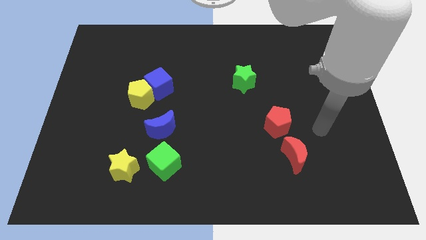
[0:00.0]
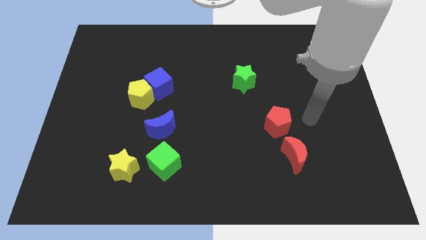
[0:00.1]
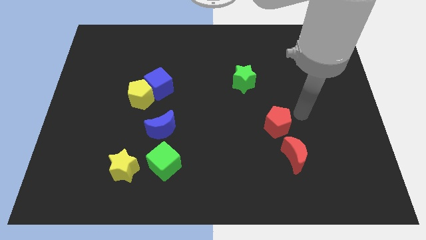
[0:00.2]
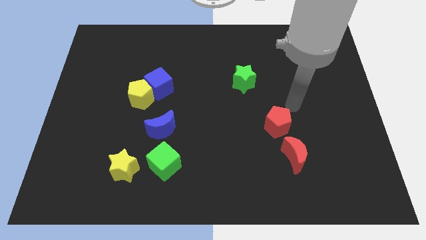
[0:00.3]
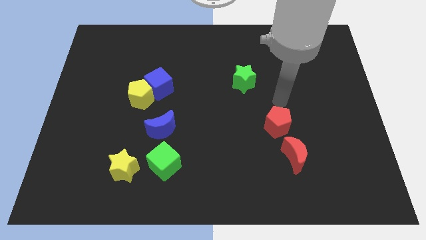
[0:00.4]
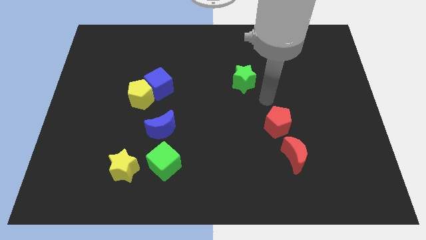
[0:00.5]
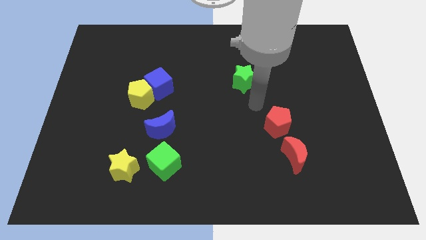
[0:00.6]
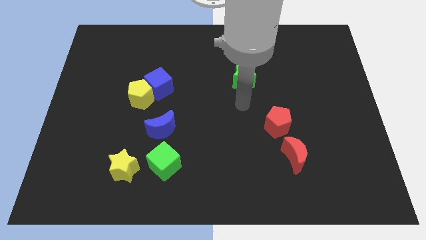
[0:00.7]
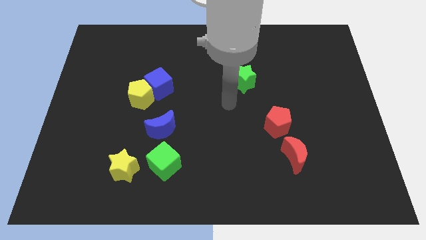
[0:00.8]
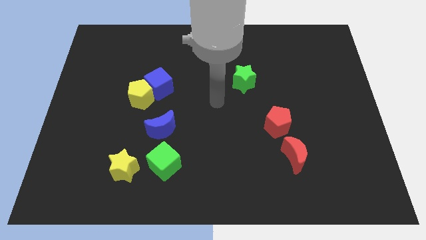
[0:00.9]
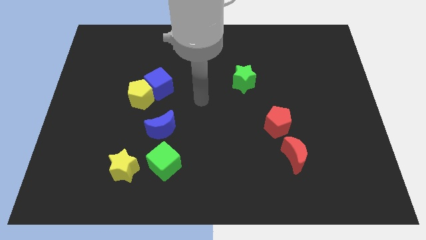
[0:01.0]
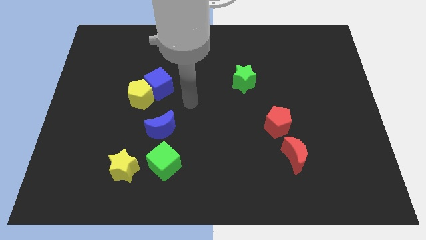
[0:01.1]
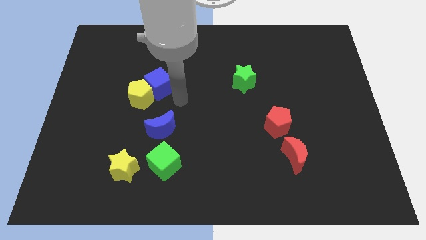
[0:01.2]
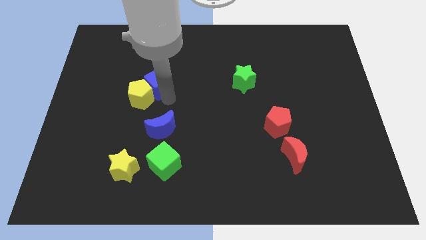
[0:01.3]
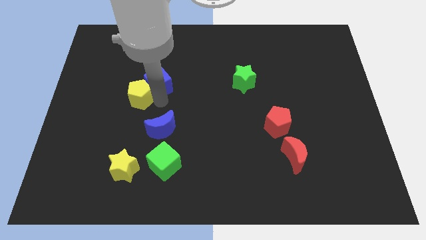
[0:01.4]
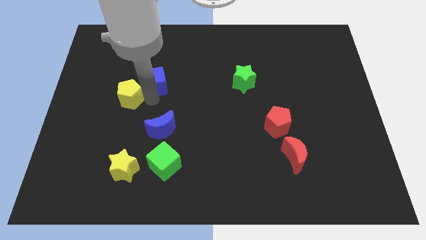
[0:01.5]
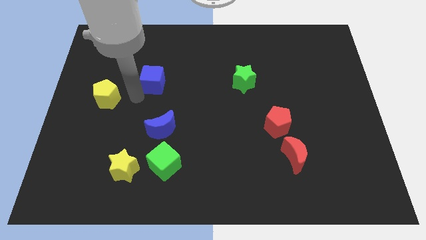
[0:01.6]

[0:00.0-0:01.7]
move the blue cube away from the yellow pentagon

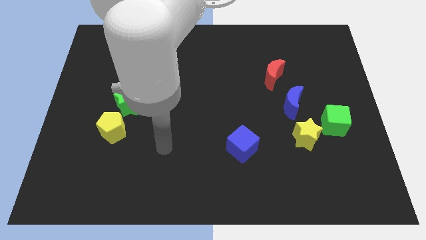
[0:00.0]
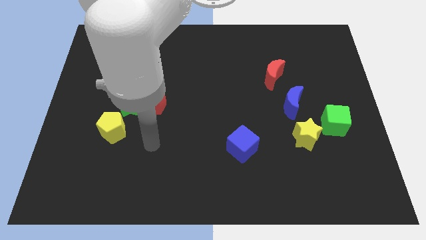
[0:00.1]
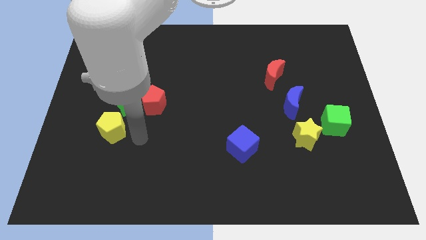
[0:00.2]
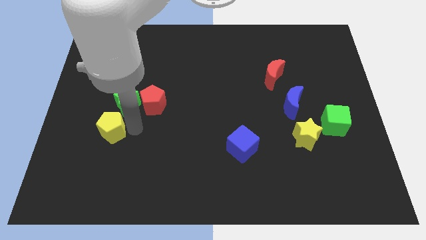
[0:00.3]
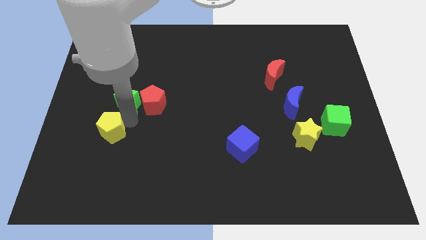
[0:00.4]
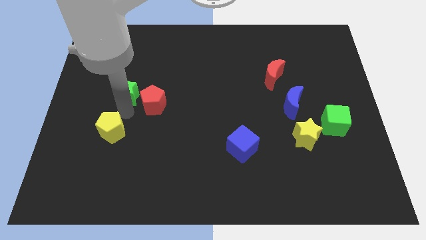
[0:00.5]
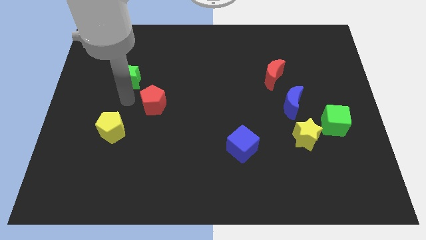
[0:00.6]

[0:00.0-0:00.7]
move the red pentagon away from the green star

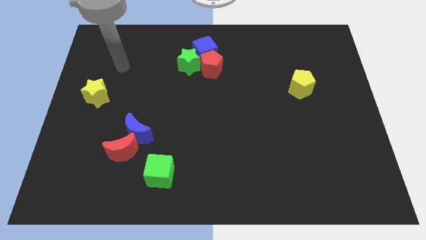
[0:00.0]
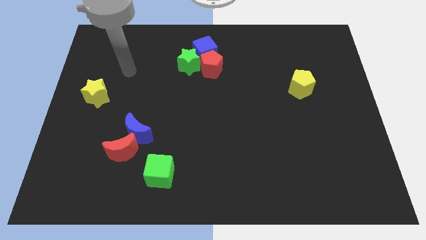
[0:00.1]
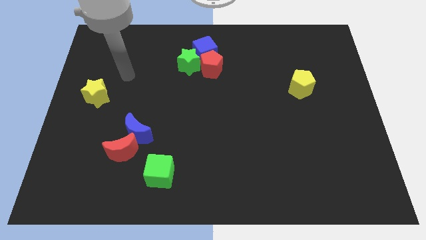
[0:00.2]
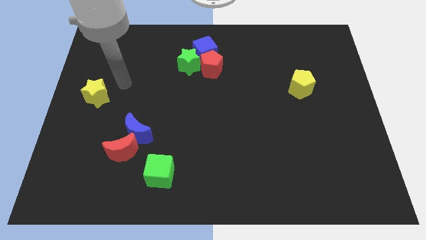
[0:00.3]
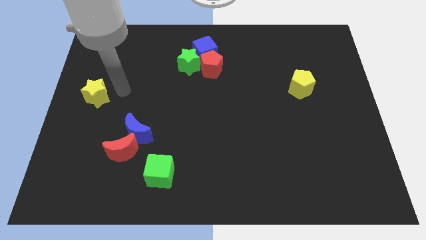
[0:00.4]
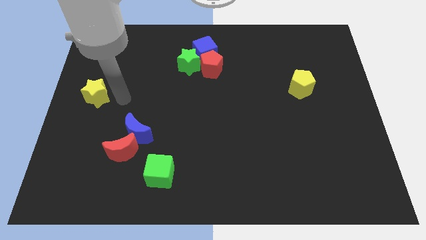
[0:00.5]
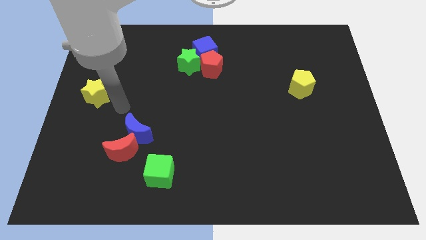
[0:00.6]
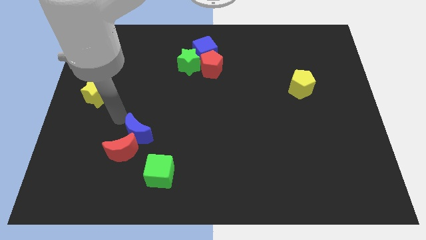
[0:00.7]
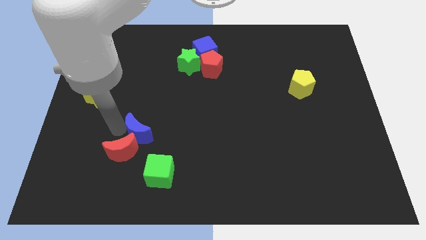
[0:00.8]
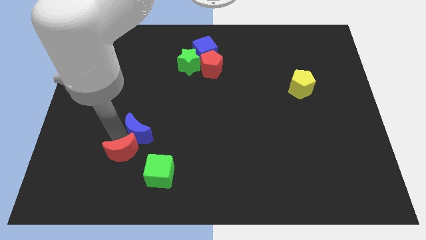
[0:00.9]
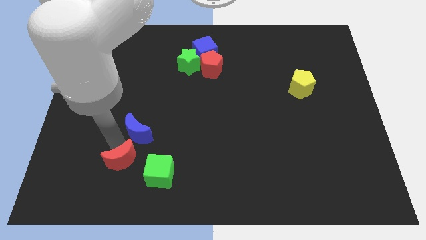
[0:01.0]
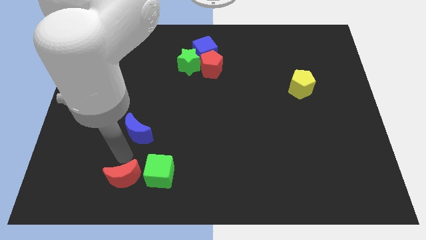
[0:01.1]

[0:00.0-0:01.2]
separate the blue moon from the red moon

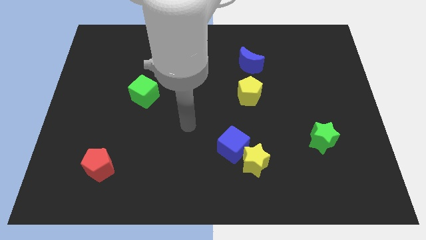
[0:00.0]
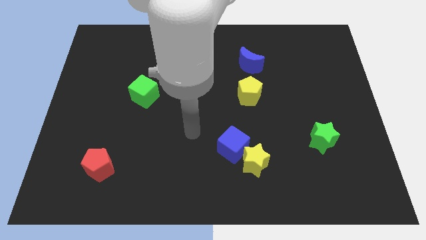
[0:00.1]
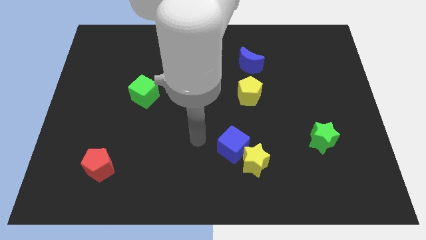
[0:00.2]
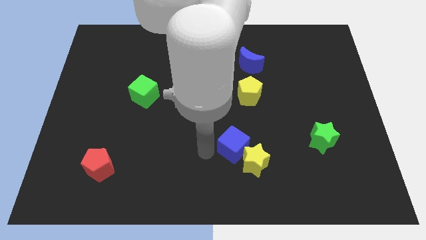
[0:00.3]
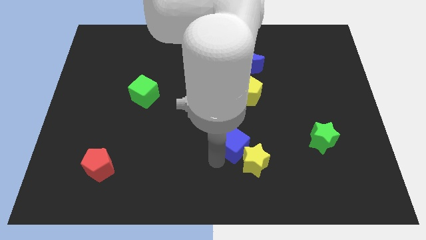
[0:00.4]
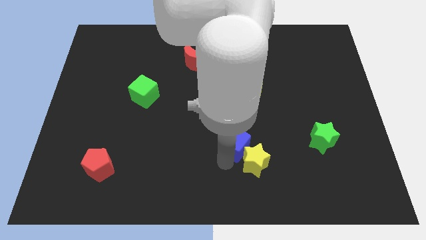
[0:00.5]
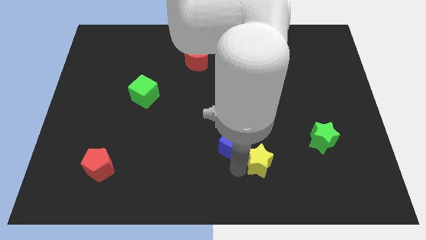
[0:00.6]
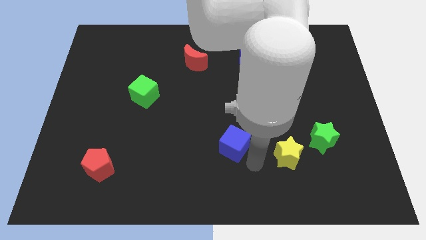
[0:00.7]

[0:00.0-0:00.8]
pull the blue cube apart from the yellow star

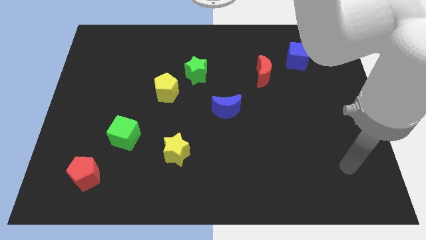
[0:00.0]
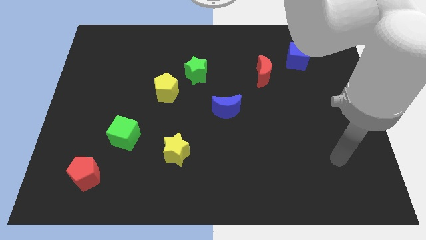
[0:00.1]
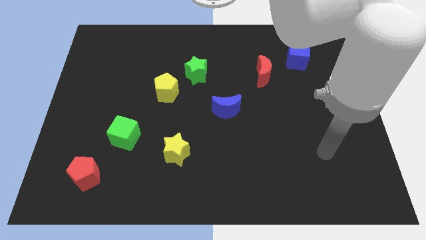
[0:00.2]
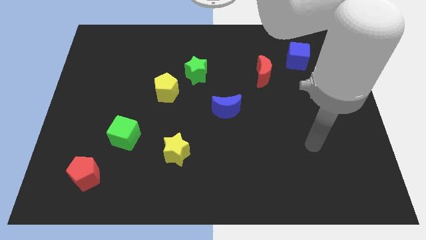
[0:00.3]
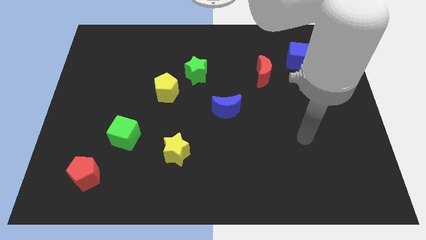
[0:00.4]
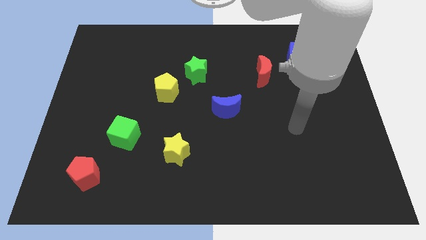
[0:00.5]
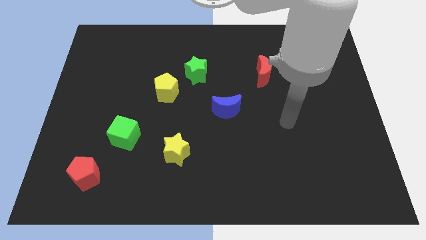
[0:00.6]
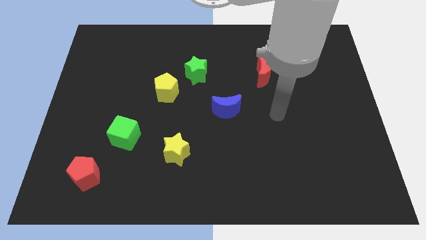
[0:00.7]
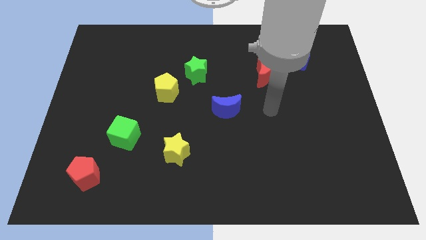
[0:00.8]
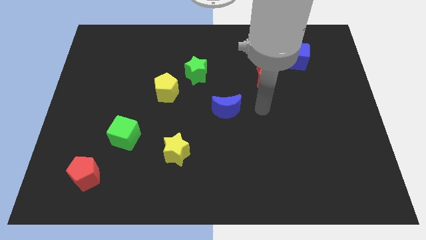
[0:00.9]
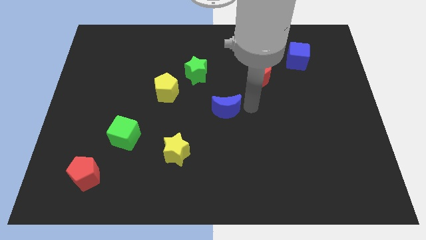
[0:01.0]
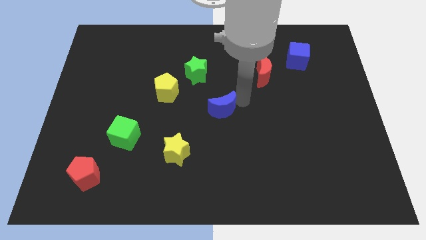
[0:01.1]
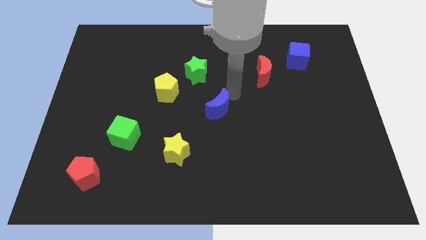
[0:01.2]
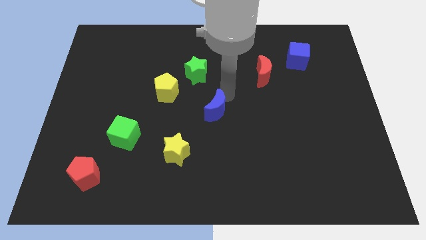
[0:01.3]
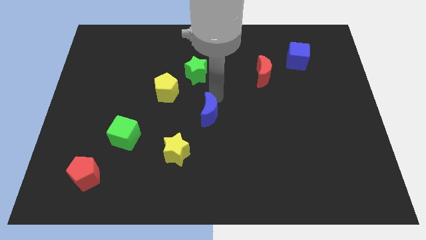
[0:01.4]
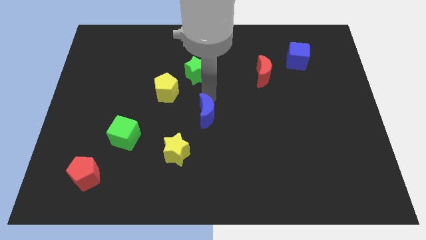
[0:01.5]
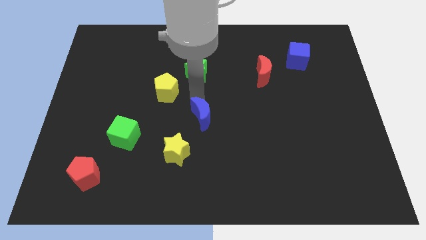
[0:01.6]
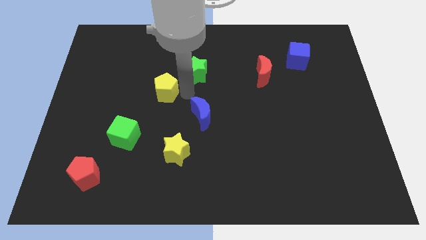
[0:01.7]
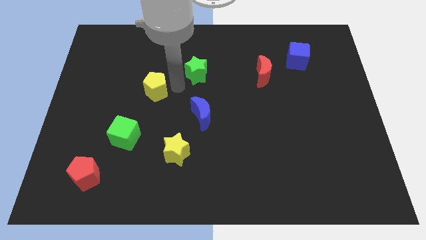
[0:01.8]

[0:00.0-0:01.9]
separate the green star from the yellow pentagon

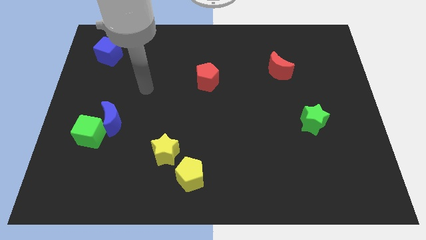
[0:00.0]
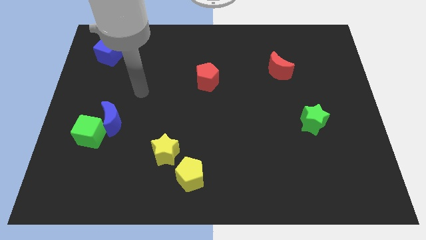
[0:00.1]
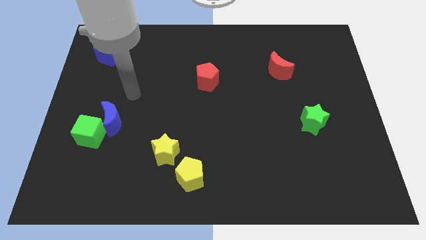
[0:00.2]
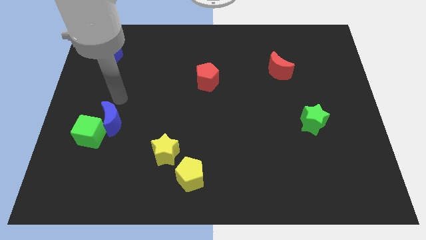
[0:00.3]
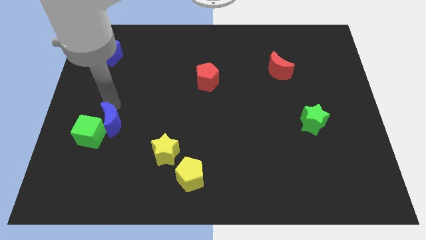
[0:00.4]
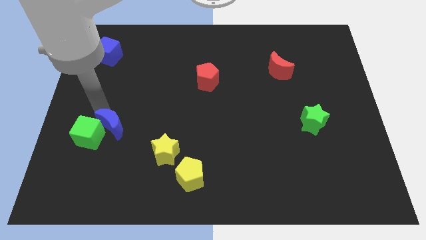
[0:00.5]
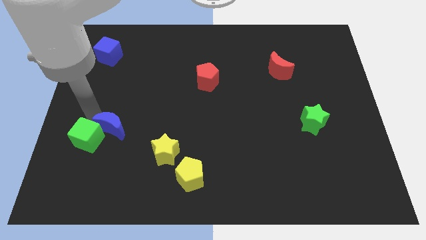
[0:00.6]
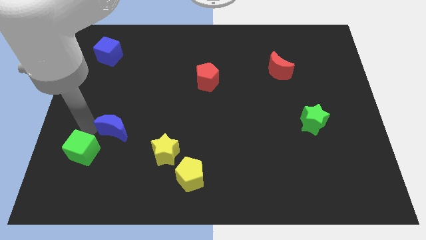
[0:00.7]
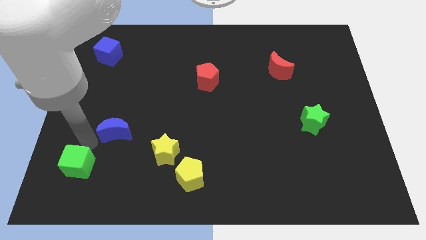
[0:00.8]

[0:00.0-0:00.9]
move the blue moon away from the green cube

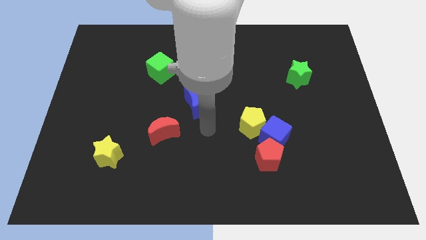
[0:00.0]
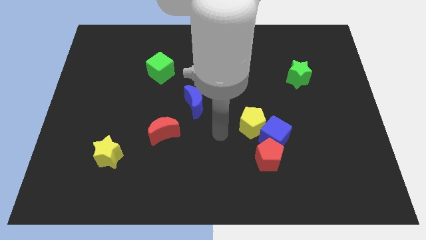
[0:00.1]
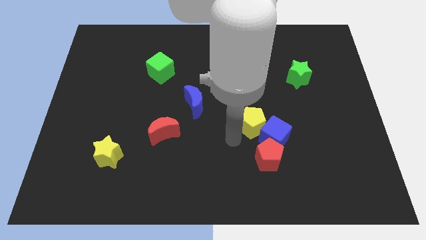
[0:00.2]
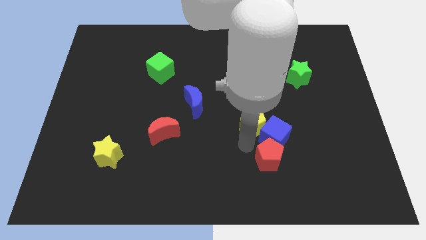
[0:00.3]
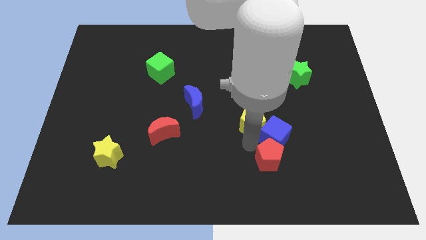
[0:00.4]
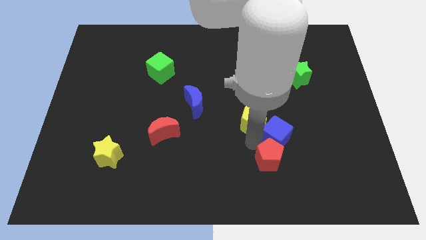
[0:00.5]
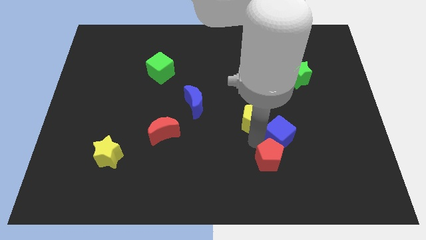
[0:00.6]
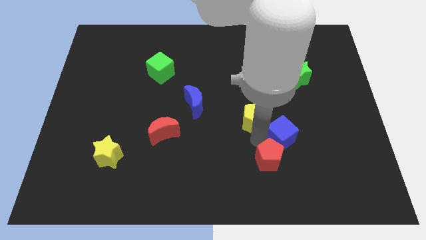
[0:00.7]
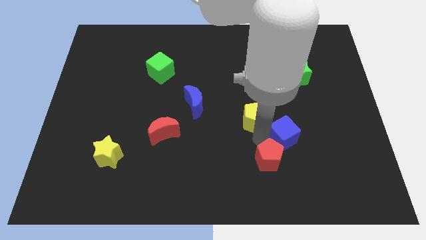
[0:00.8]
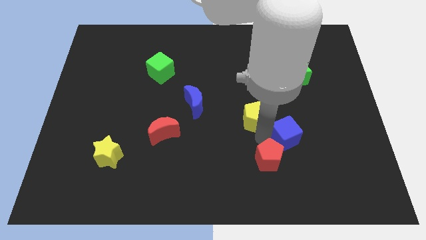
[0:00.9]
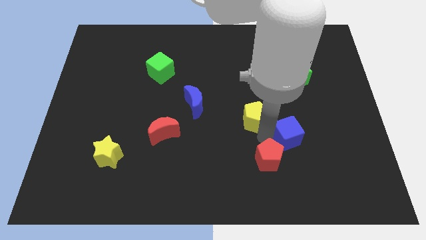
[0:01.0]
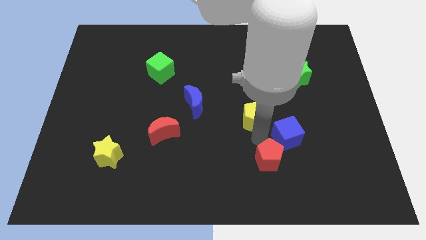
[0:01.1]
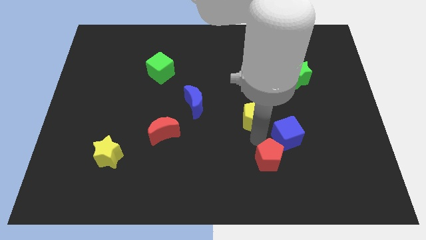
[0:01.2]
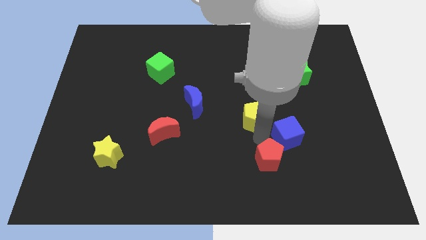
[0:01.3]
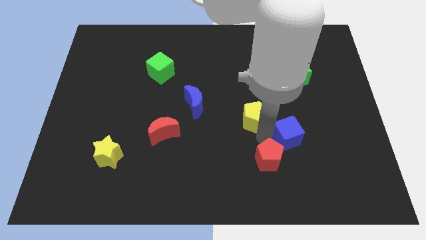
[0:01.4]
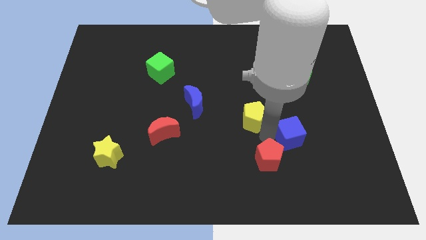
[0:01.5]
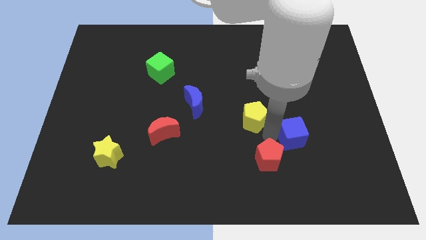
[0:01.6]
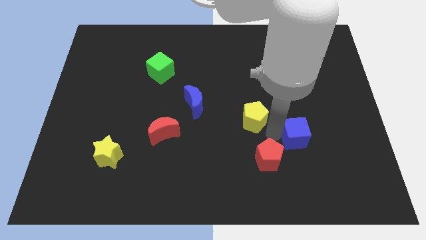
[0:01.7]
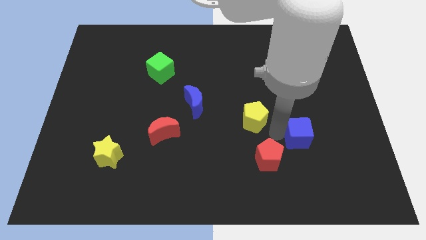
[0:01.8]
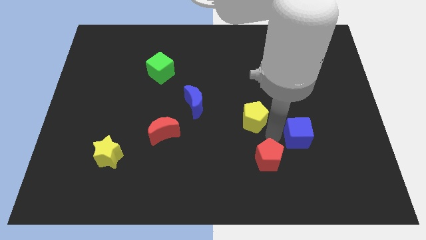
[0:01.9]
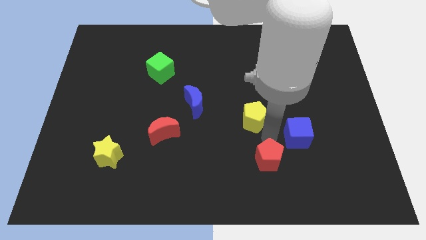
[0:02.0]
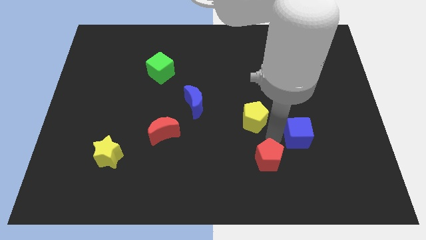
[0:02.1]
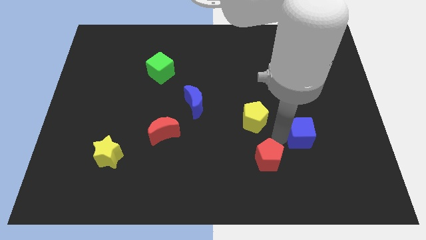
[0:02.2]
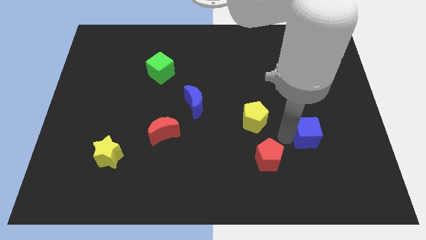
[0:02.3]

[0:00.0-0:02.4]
move the blue cube away from the yellow pentagon and red pentagon
